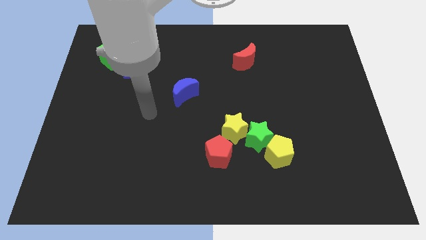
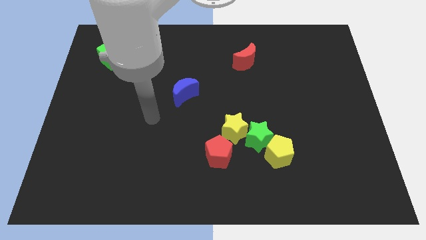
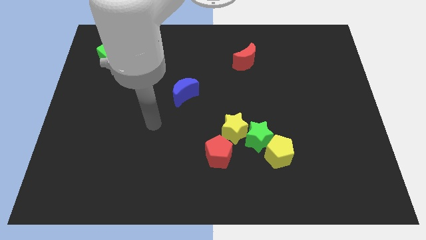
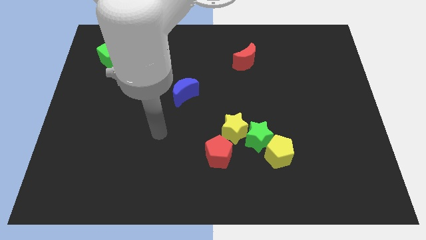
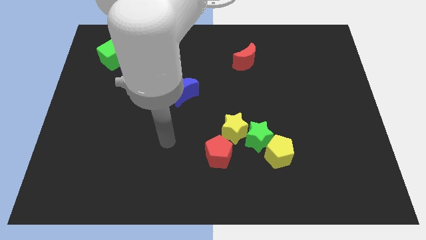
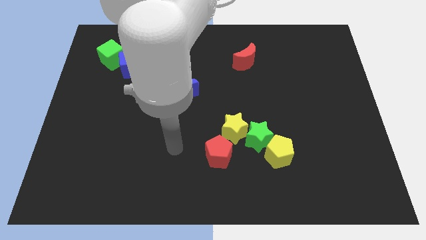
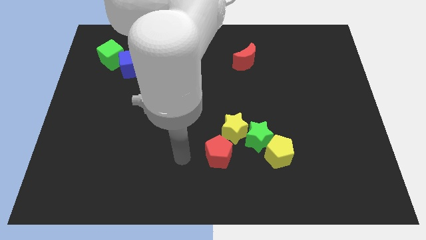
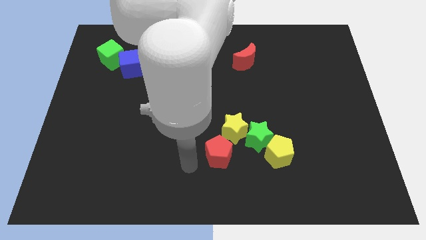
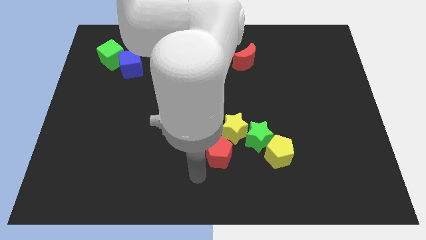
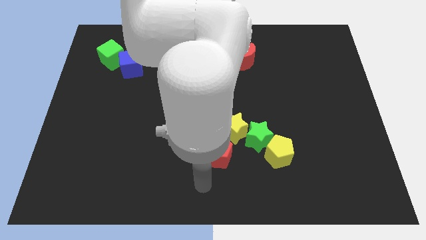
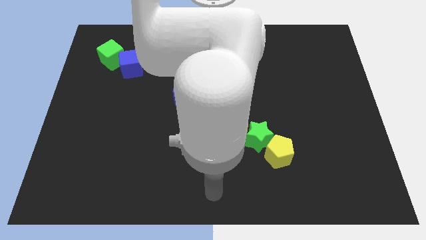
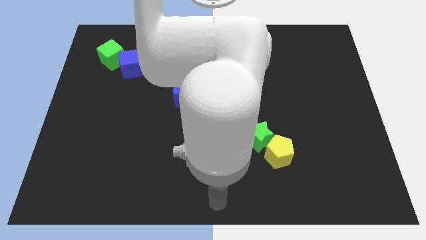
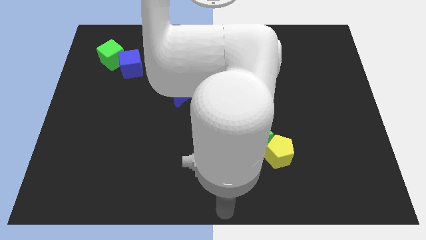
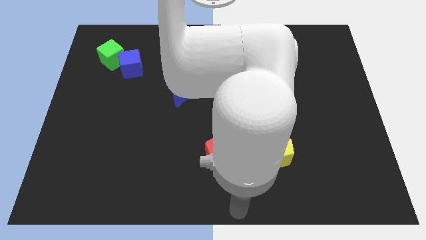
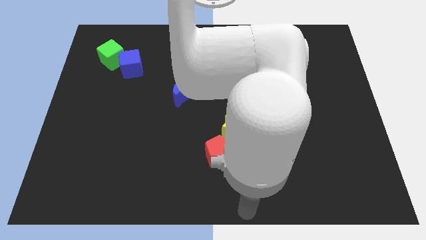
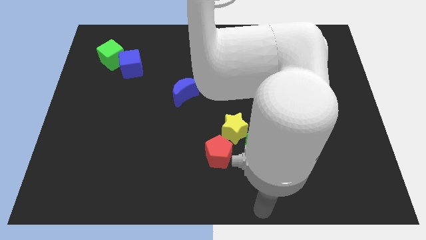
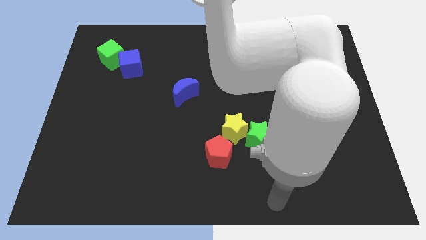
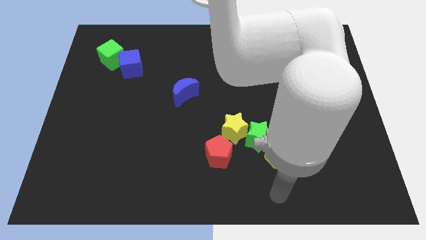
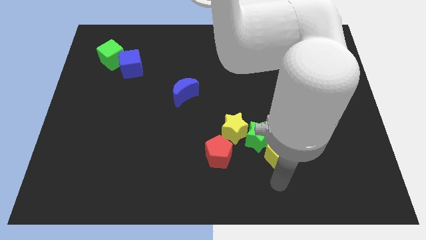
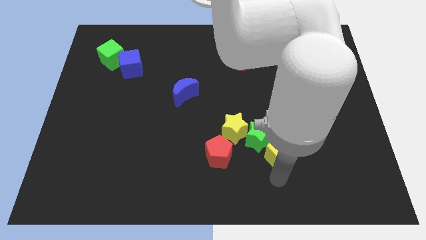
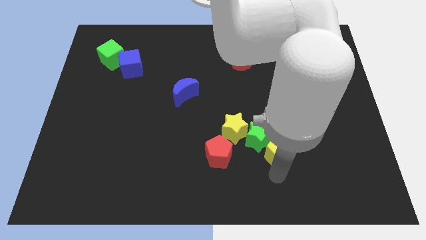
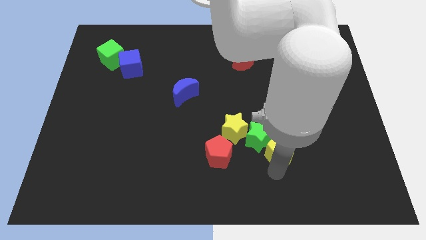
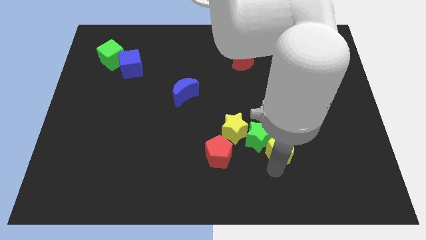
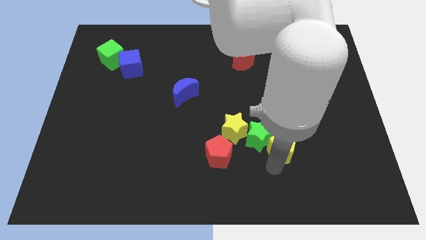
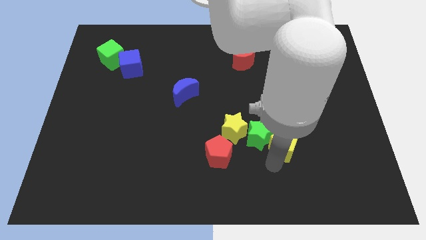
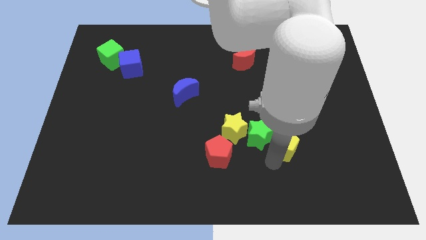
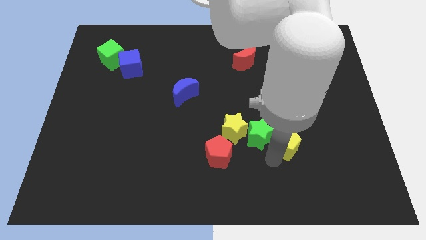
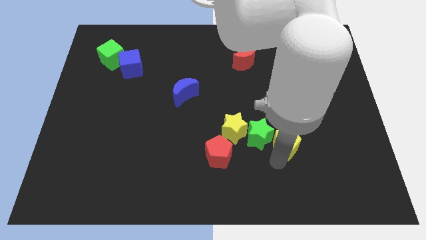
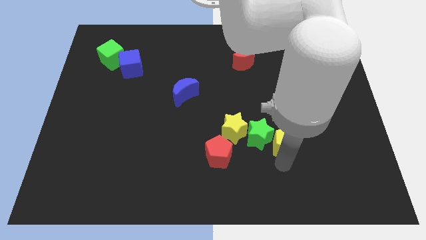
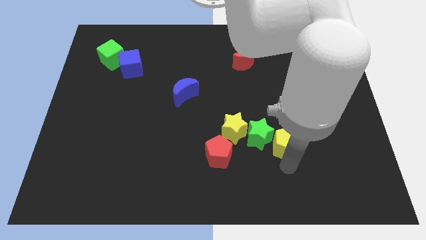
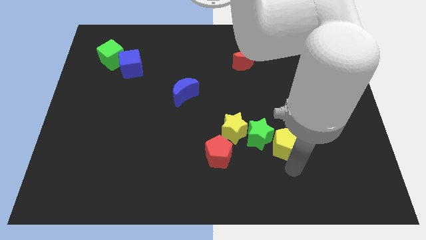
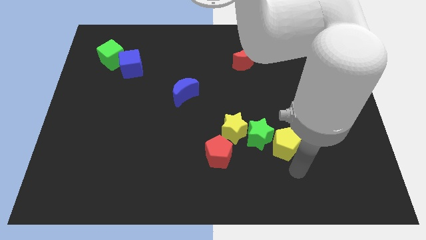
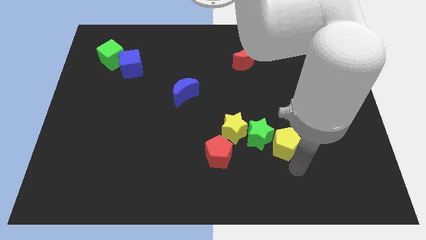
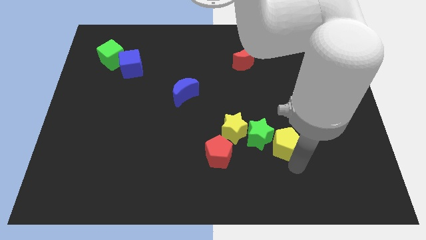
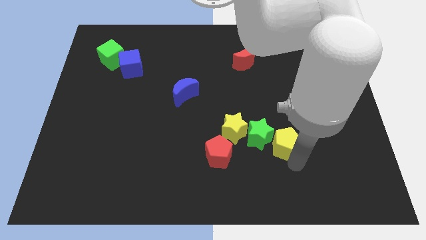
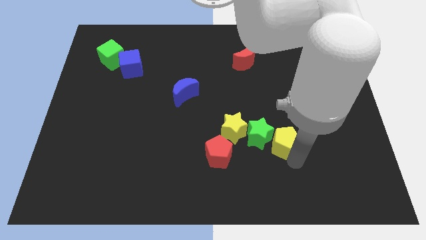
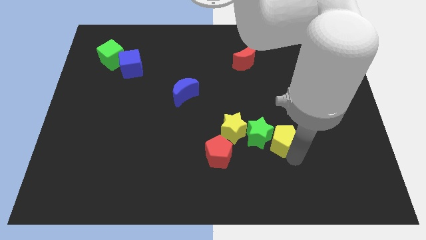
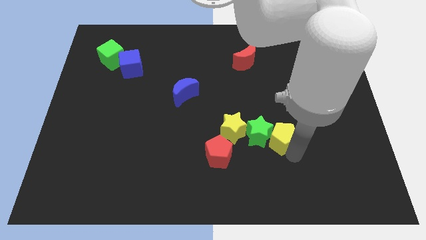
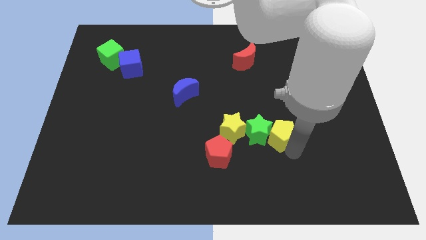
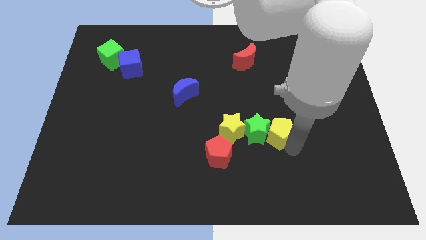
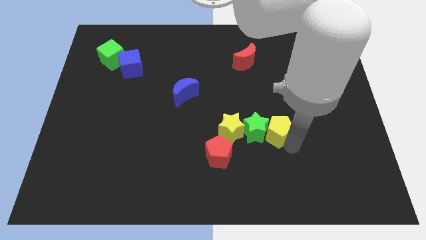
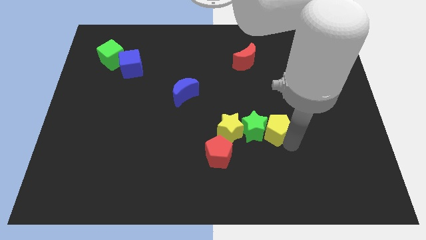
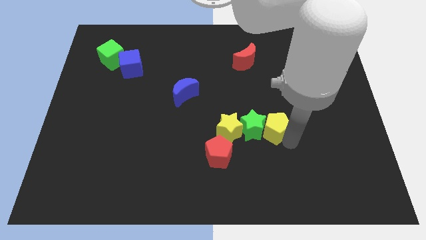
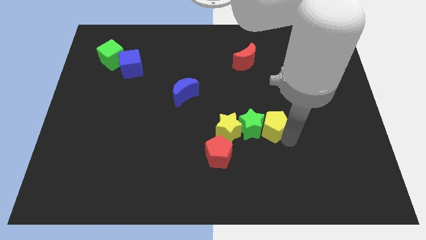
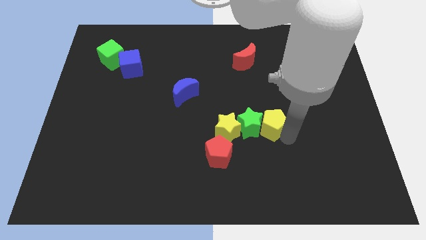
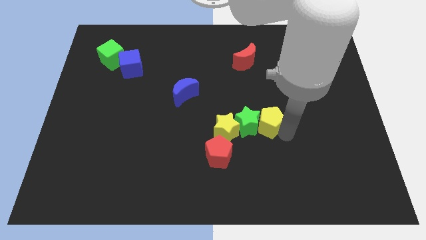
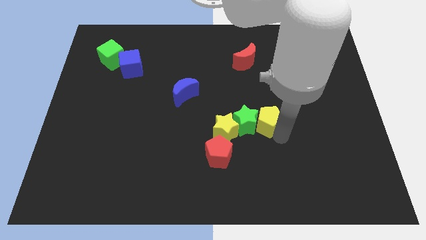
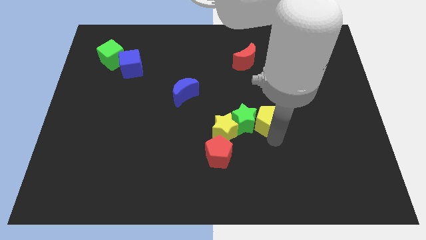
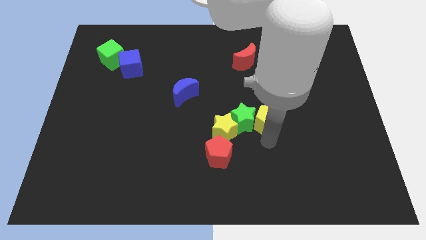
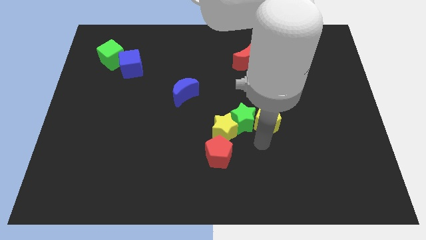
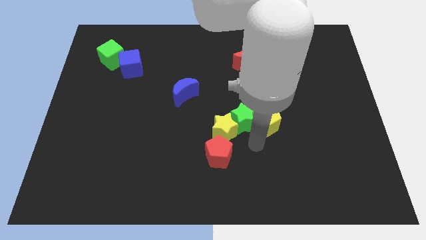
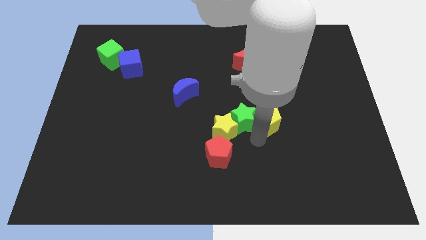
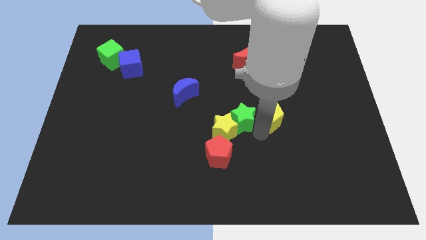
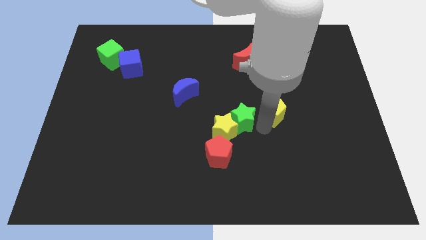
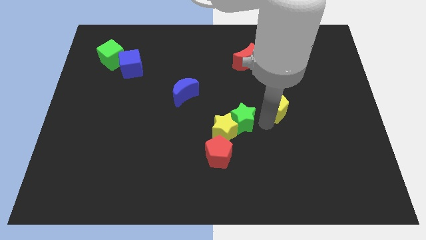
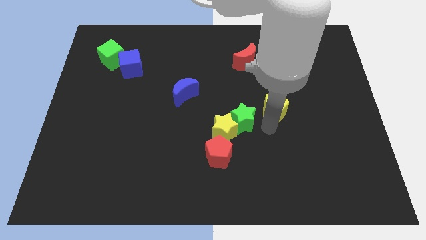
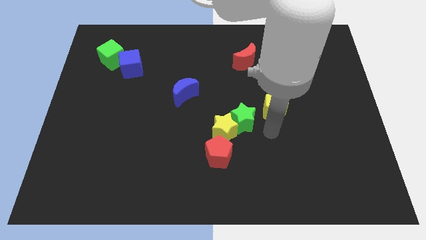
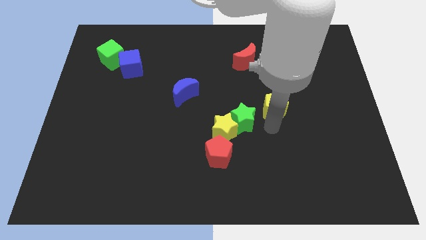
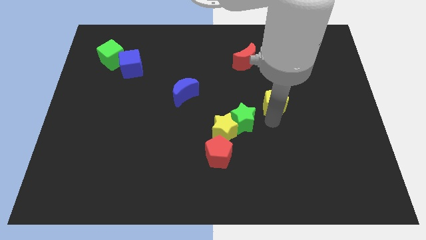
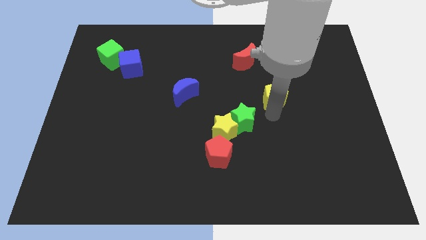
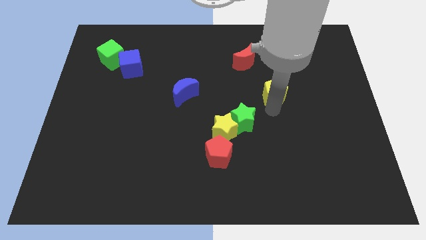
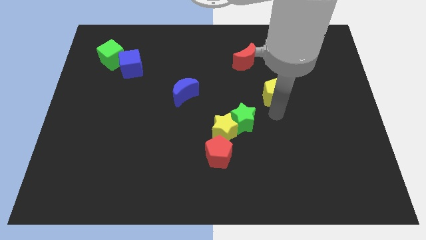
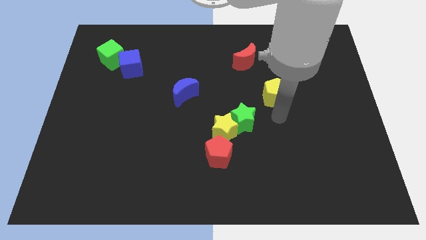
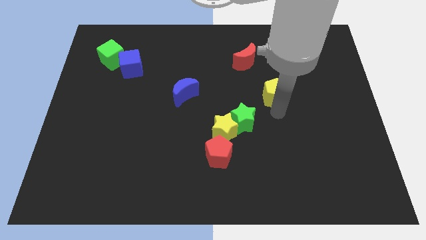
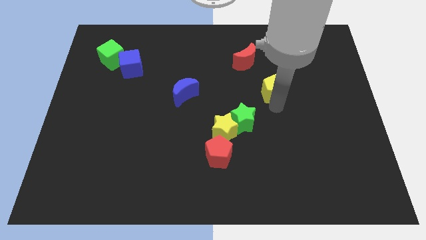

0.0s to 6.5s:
put the yellow pentagon diagonally down and to the right of the red moon

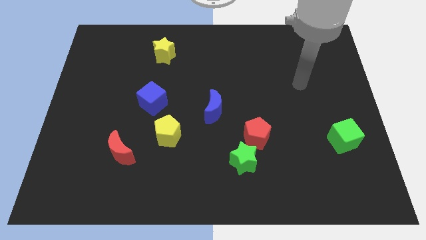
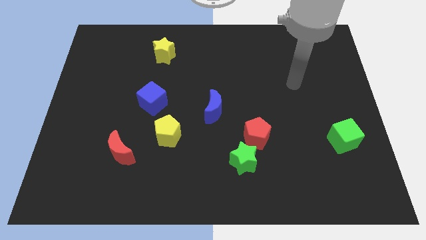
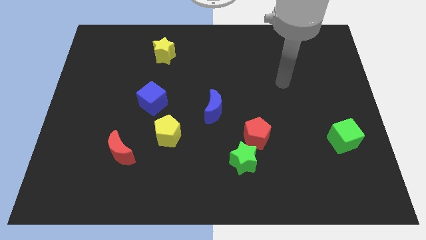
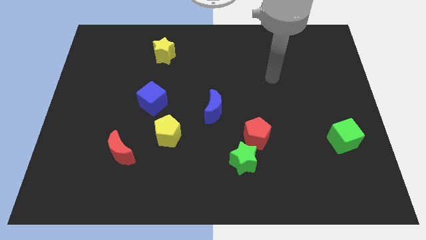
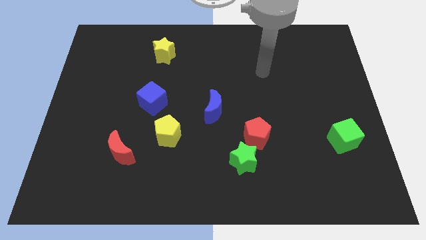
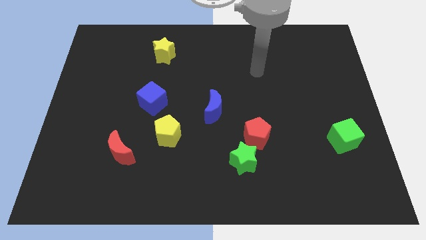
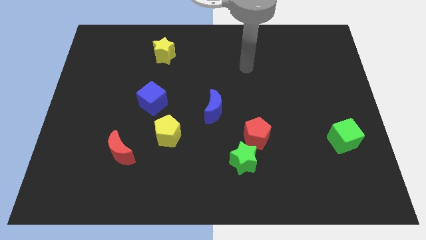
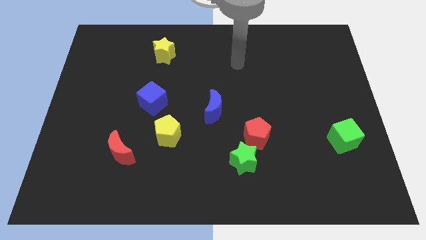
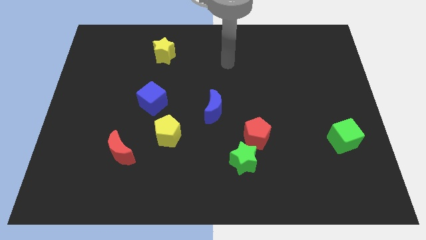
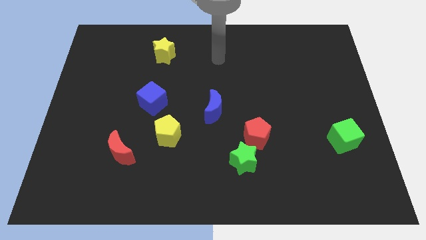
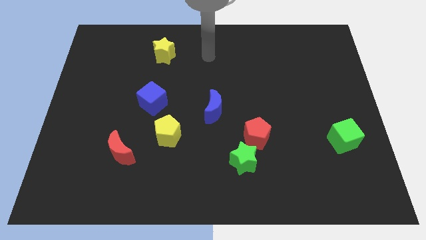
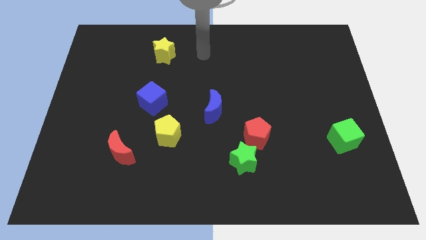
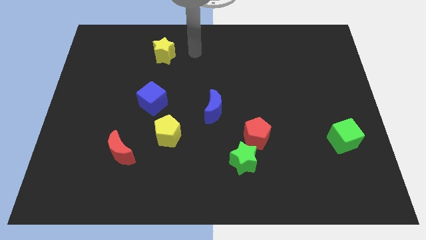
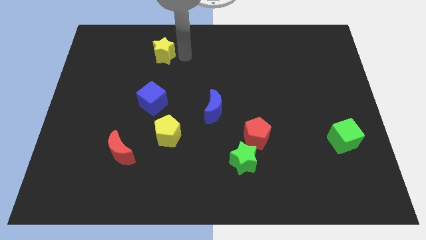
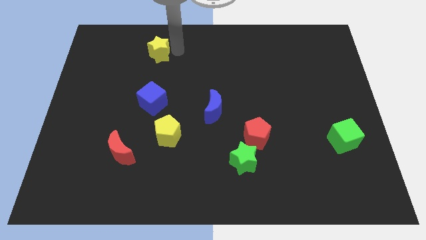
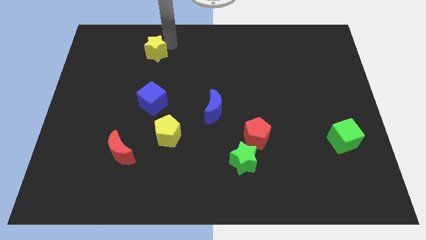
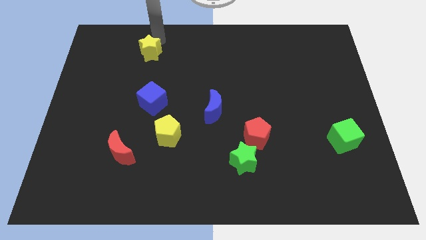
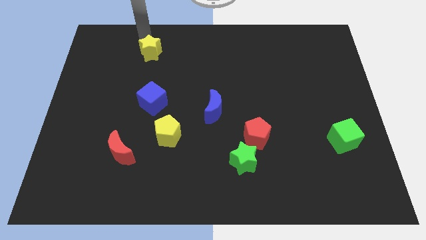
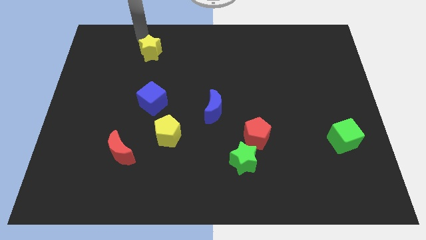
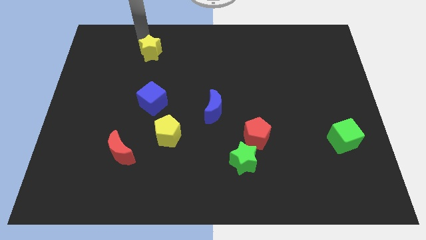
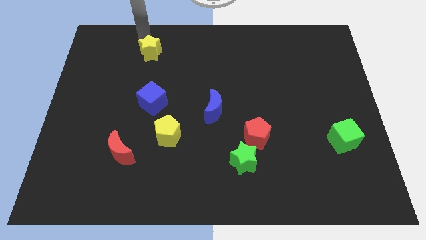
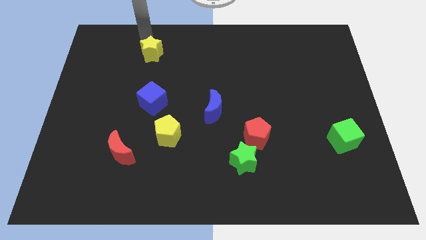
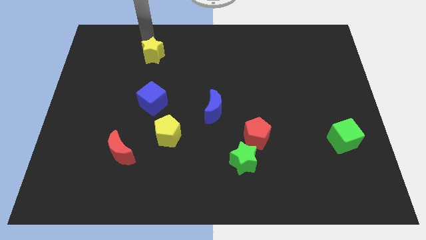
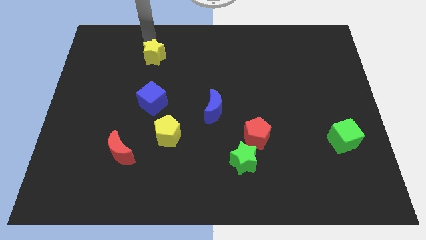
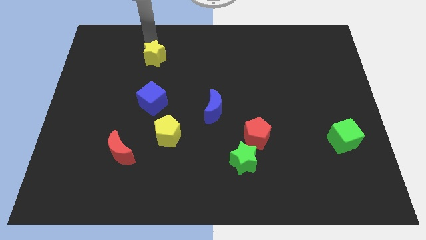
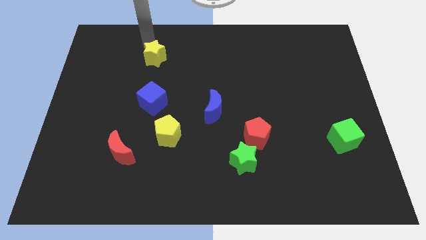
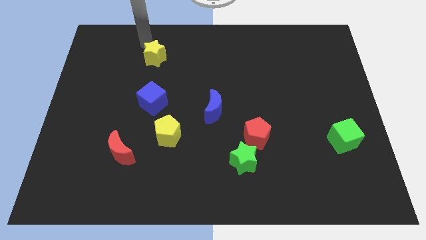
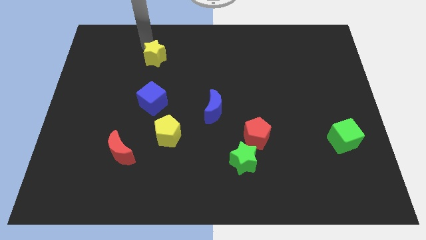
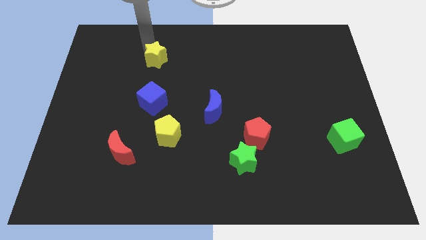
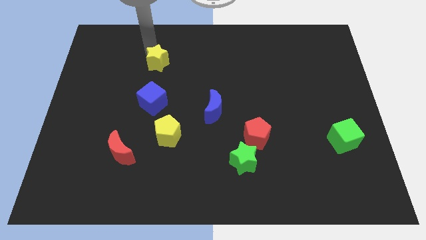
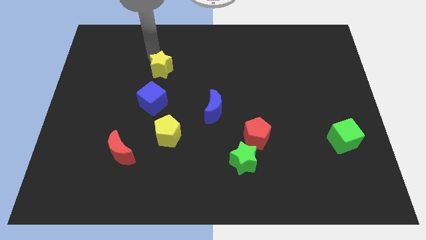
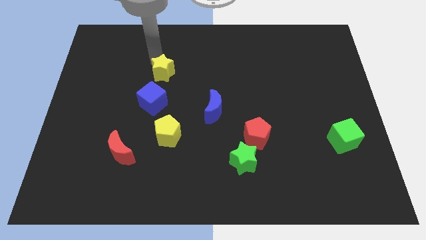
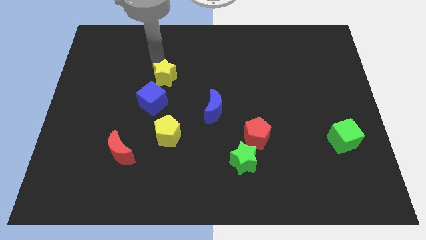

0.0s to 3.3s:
put the yellow star diagonally up and to the right of the blue cube
